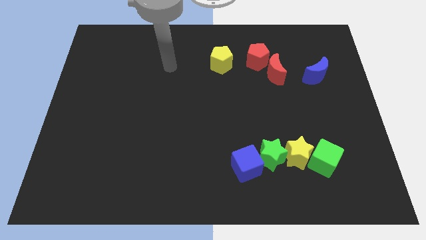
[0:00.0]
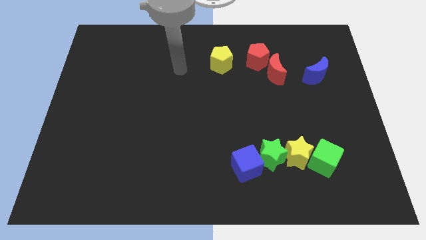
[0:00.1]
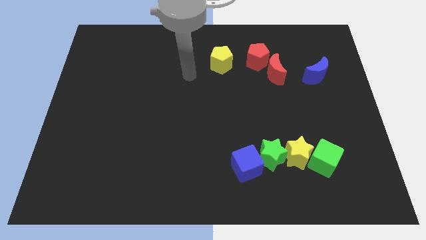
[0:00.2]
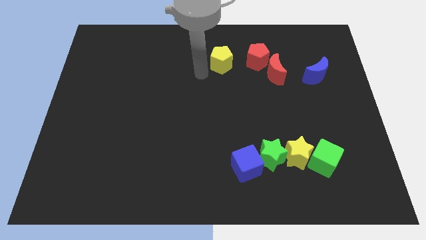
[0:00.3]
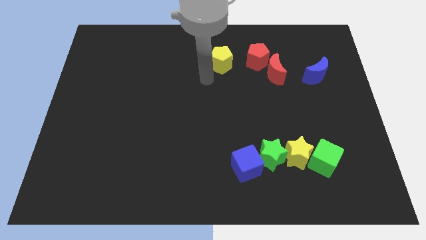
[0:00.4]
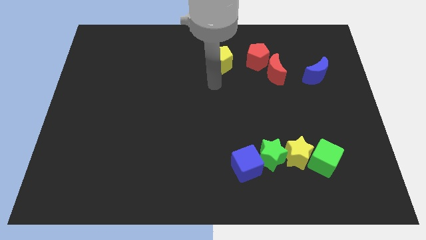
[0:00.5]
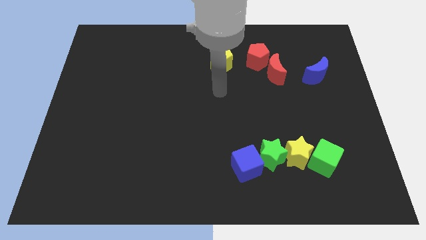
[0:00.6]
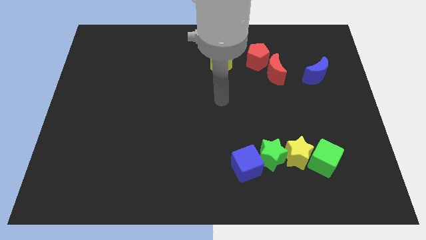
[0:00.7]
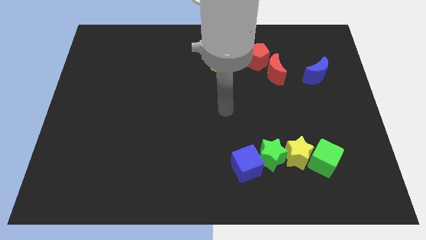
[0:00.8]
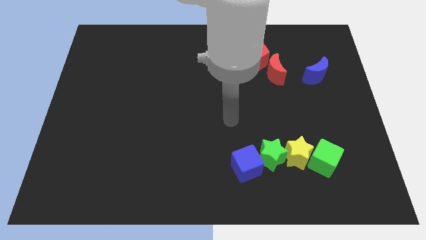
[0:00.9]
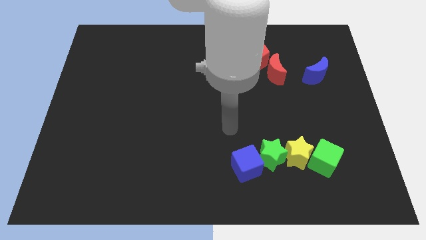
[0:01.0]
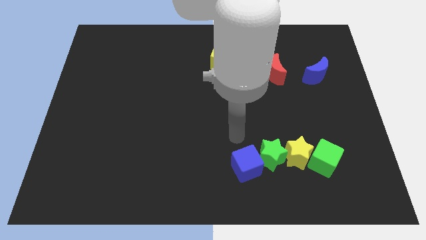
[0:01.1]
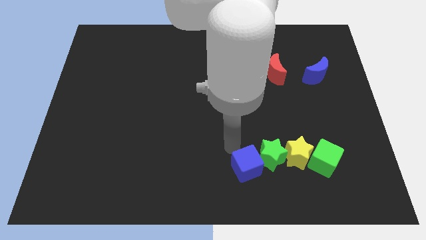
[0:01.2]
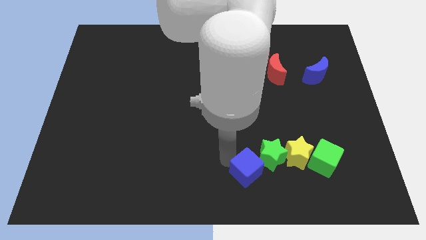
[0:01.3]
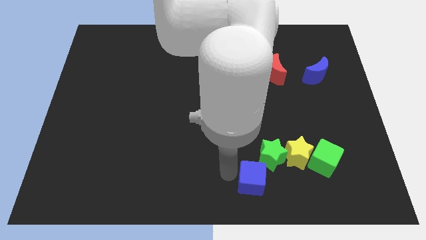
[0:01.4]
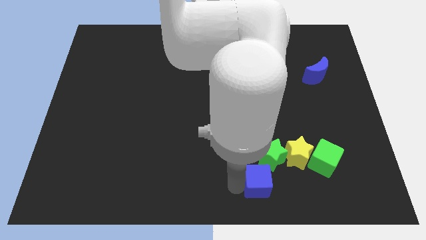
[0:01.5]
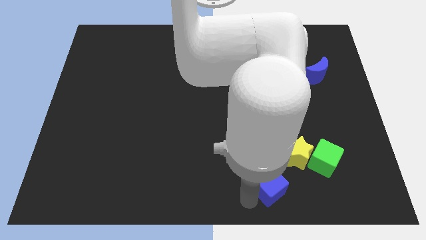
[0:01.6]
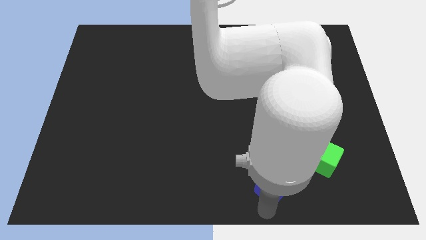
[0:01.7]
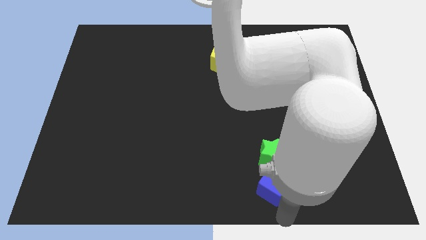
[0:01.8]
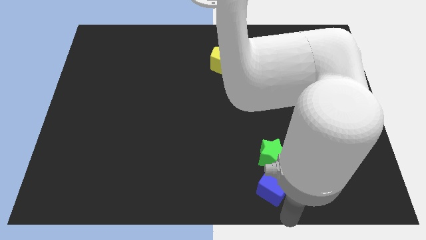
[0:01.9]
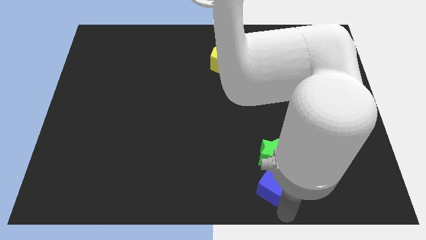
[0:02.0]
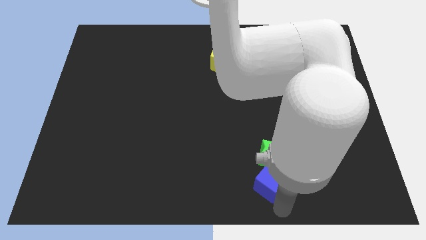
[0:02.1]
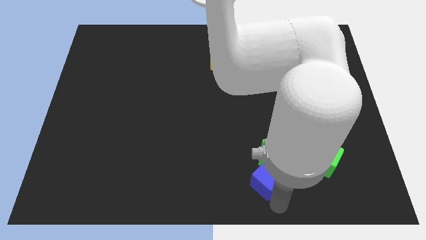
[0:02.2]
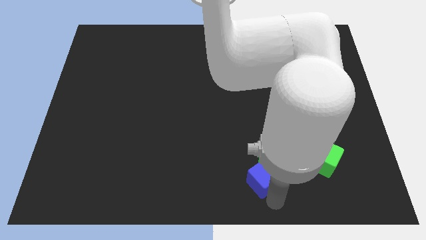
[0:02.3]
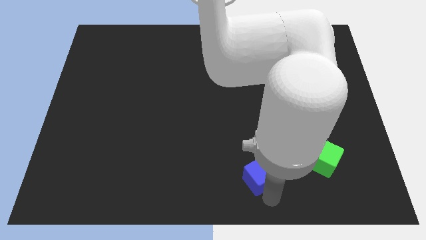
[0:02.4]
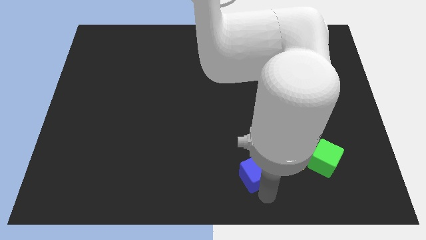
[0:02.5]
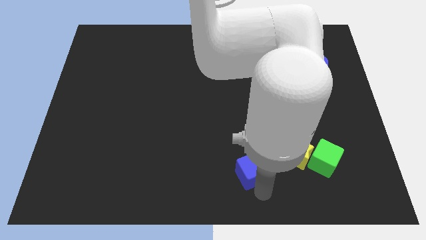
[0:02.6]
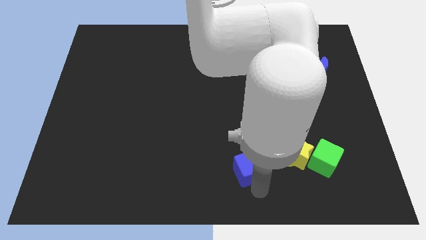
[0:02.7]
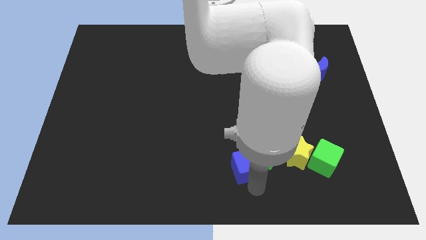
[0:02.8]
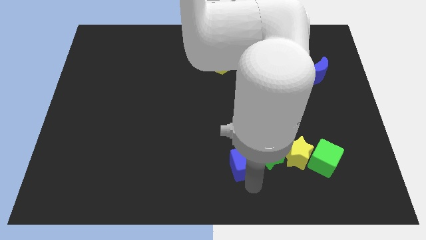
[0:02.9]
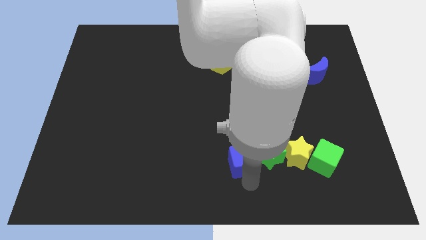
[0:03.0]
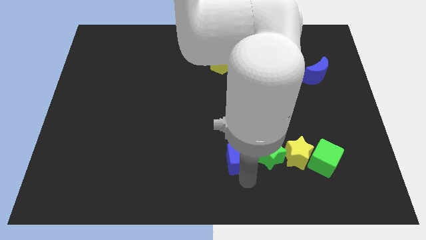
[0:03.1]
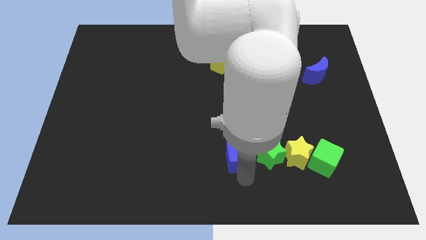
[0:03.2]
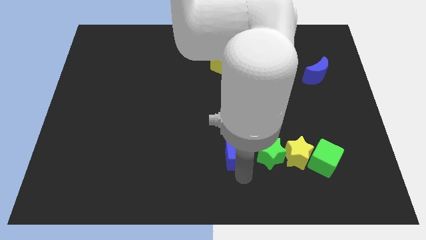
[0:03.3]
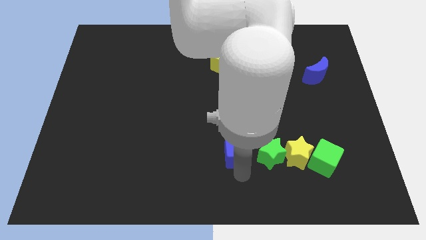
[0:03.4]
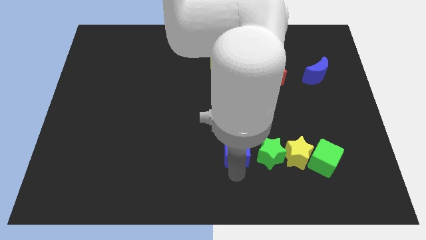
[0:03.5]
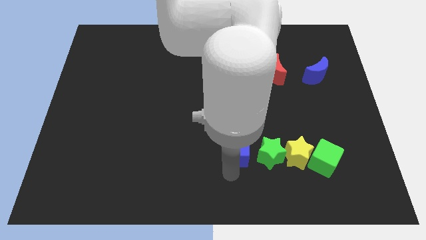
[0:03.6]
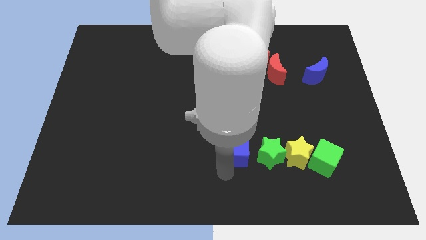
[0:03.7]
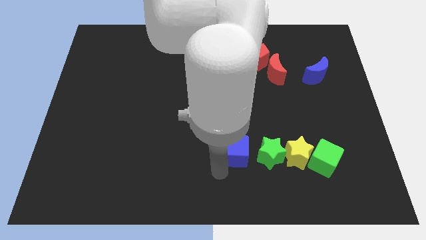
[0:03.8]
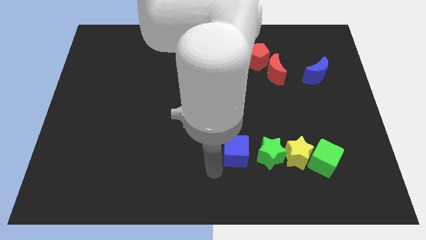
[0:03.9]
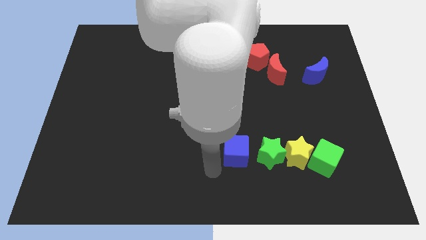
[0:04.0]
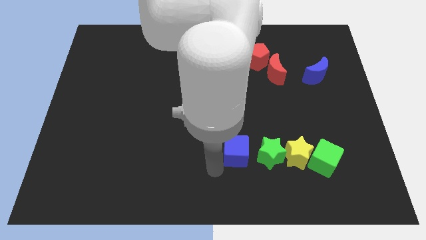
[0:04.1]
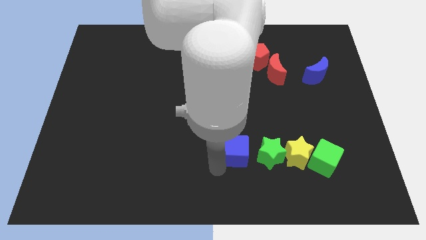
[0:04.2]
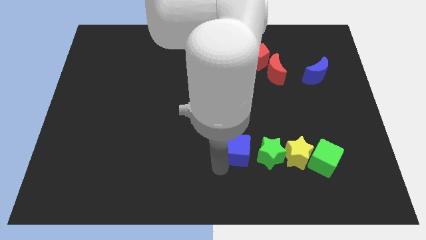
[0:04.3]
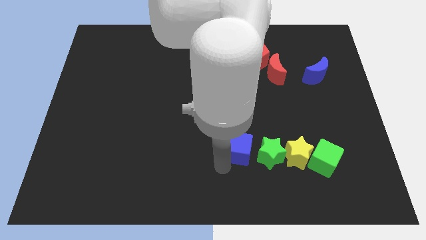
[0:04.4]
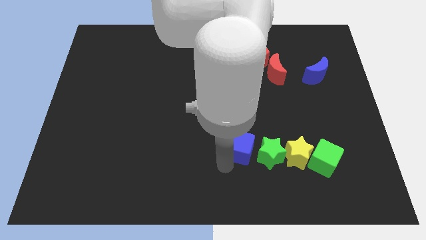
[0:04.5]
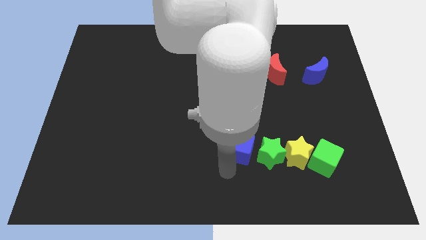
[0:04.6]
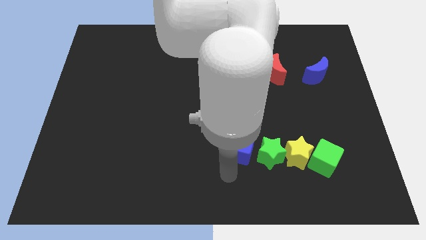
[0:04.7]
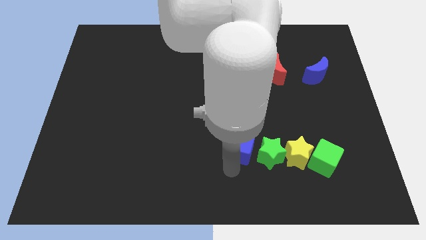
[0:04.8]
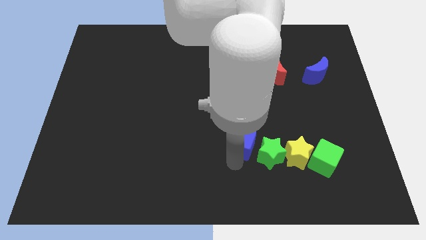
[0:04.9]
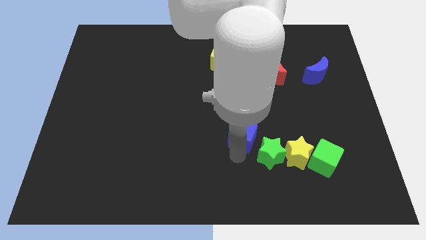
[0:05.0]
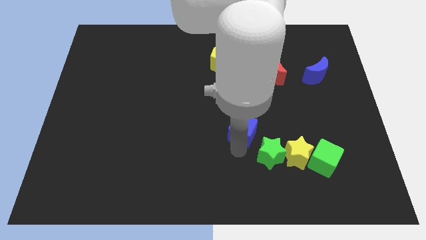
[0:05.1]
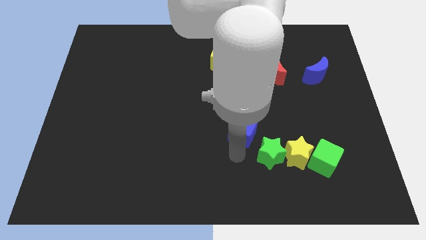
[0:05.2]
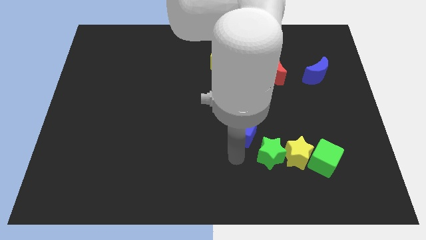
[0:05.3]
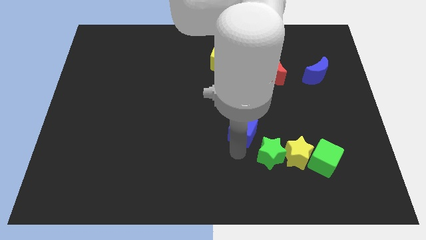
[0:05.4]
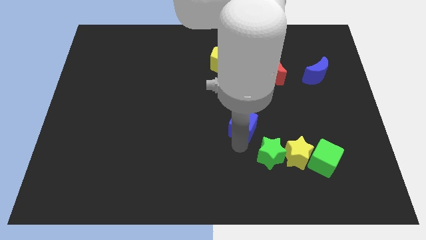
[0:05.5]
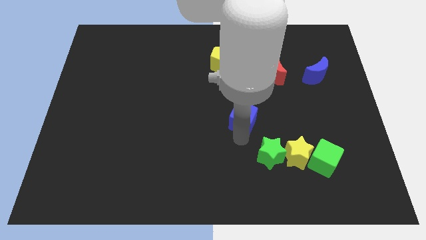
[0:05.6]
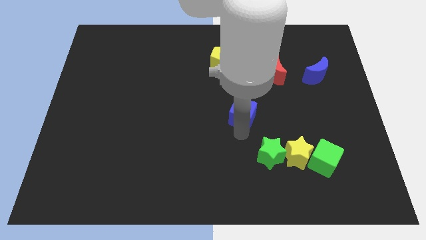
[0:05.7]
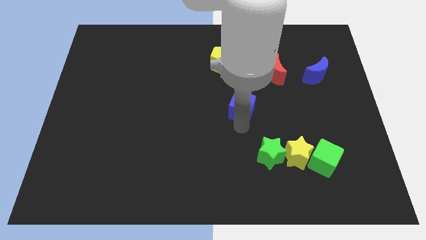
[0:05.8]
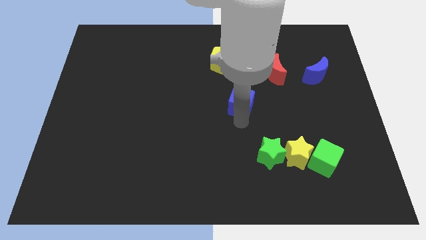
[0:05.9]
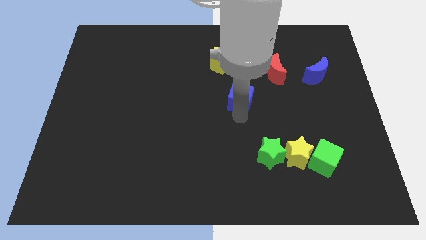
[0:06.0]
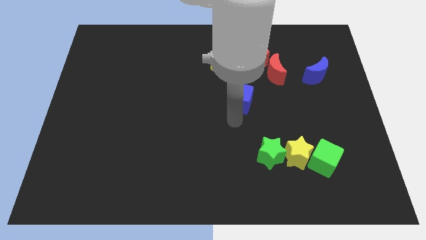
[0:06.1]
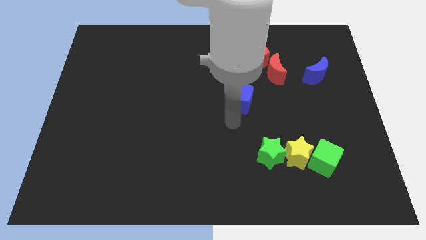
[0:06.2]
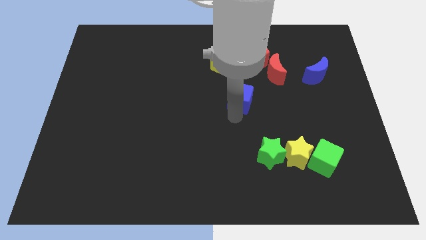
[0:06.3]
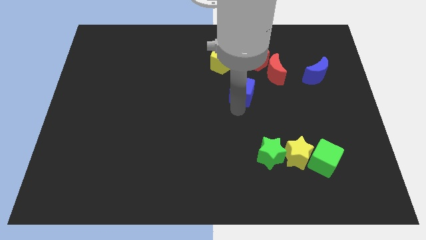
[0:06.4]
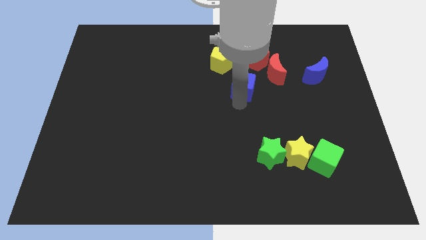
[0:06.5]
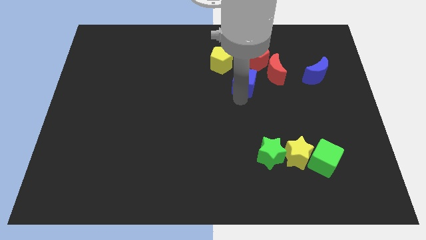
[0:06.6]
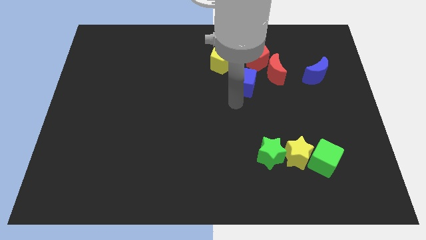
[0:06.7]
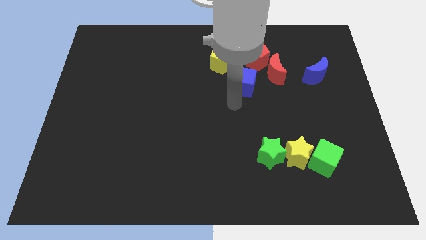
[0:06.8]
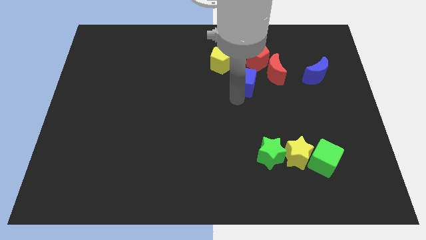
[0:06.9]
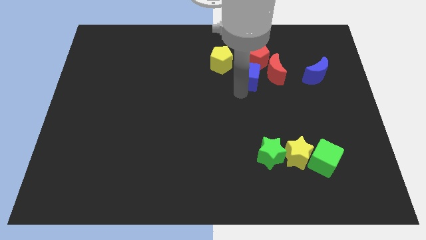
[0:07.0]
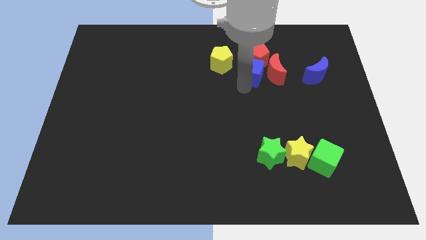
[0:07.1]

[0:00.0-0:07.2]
put the blue cube next to the red pentagon
